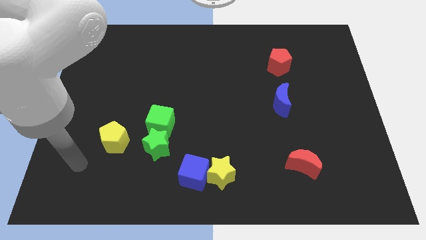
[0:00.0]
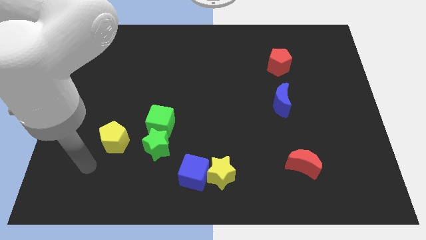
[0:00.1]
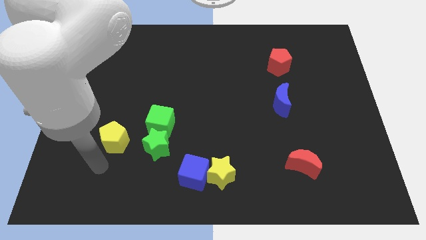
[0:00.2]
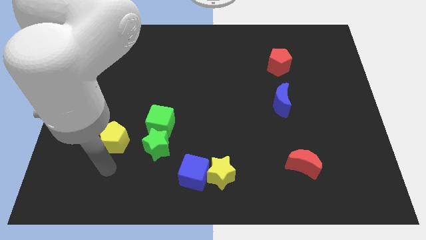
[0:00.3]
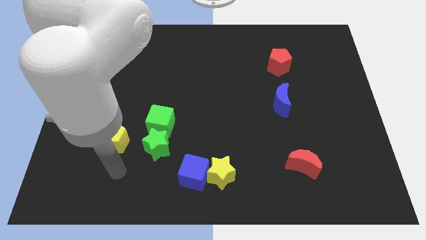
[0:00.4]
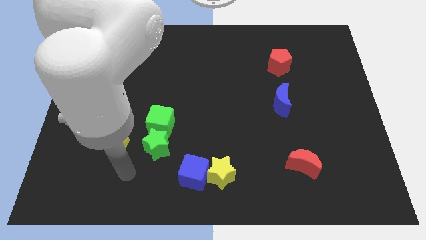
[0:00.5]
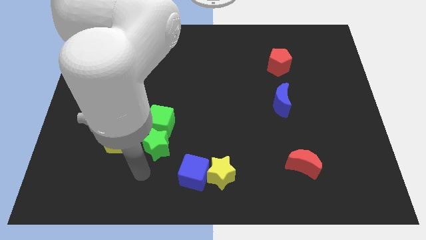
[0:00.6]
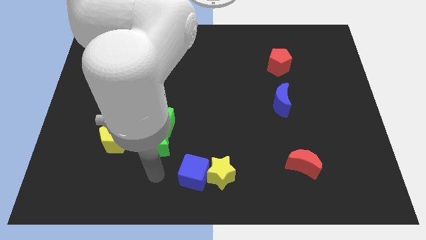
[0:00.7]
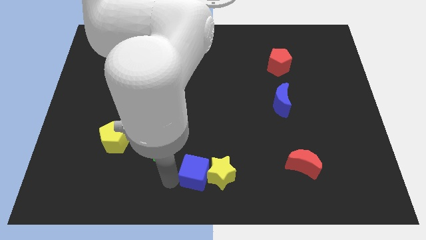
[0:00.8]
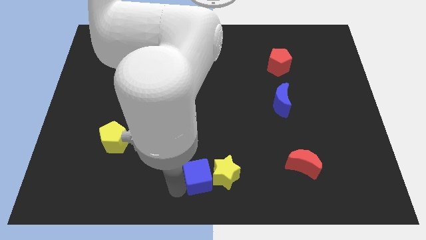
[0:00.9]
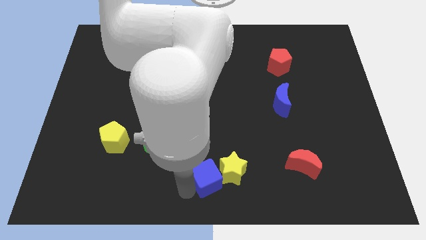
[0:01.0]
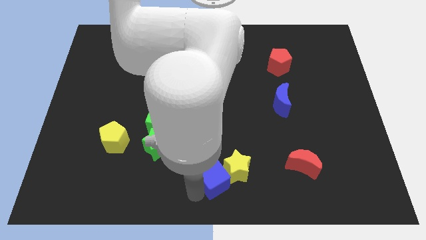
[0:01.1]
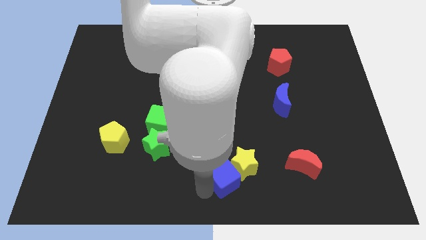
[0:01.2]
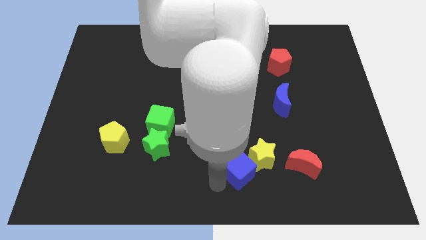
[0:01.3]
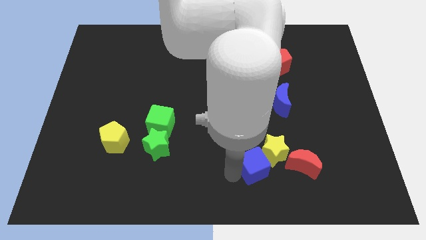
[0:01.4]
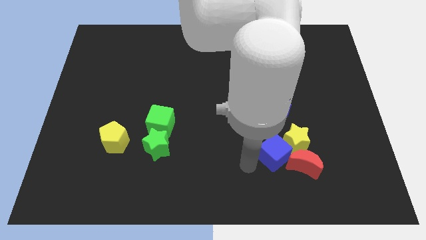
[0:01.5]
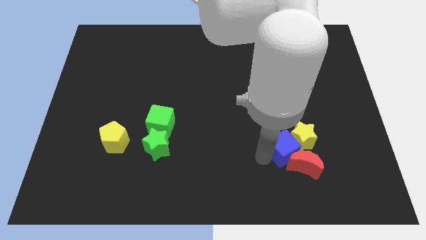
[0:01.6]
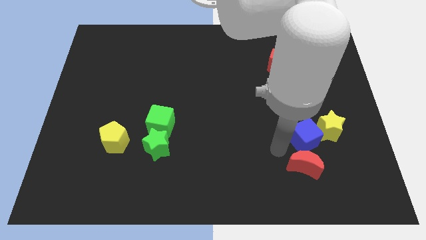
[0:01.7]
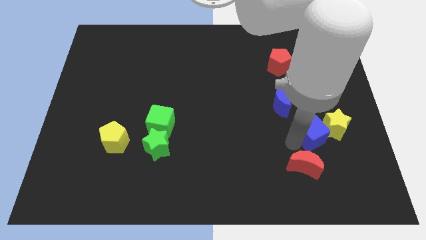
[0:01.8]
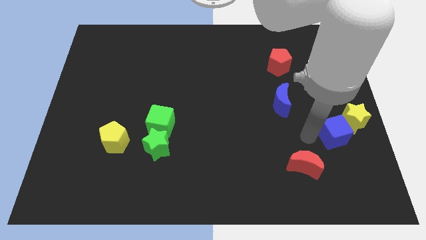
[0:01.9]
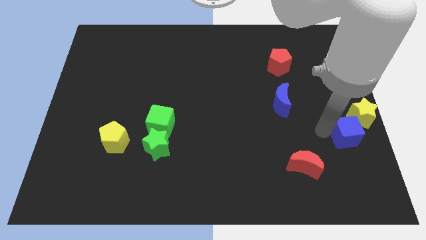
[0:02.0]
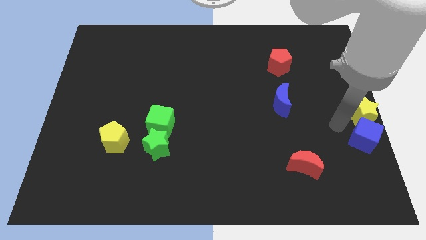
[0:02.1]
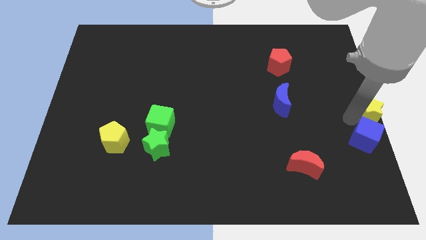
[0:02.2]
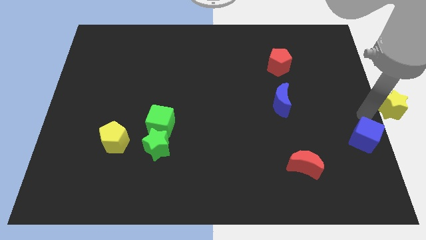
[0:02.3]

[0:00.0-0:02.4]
pull the blue cube apart from the yellow star

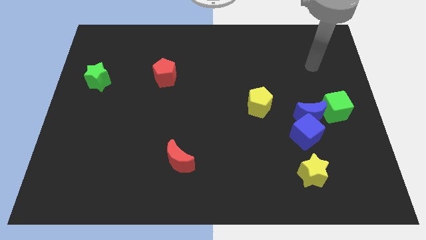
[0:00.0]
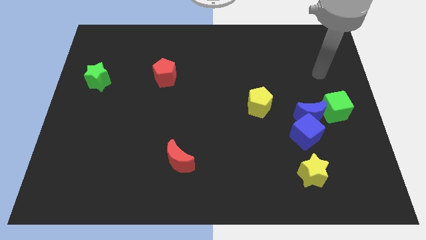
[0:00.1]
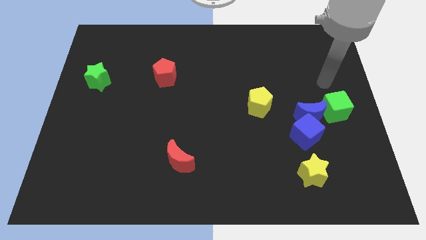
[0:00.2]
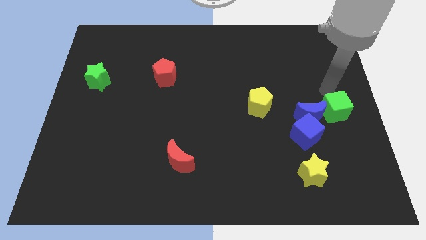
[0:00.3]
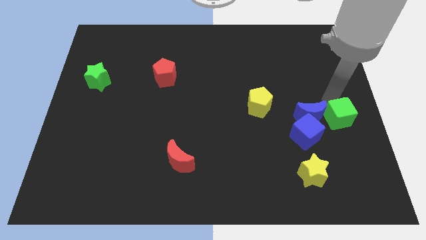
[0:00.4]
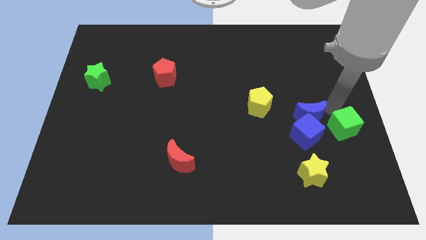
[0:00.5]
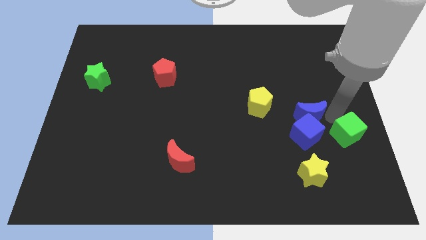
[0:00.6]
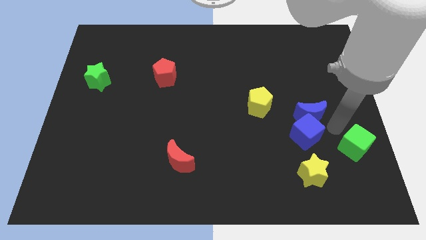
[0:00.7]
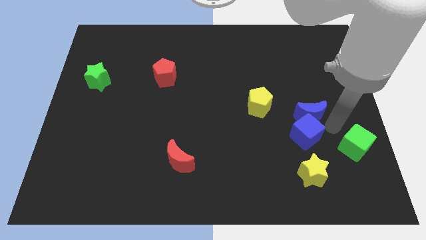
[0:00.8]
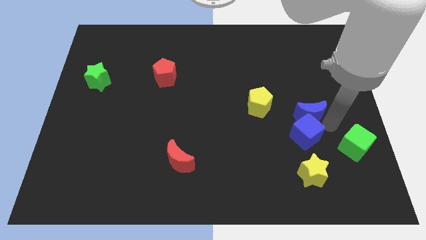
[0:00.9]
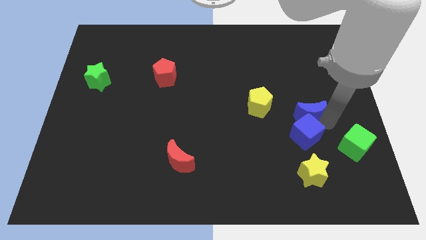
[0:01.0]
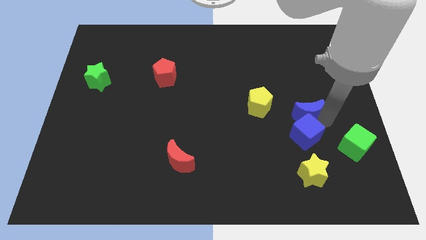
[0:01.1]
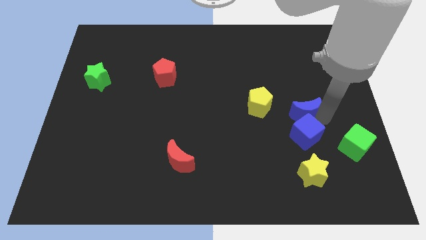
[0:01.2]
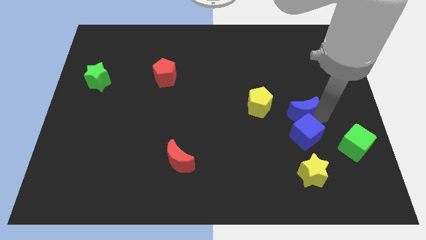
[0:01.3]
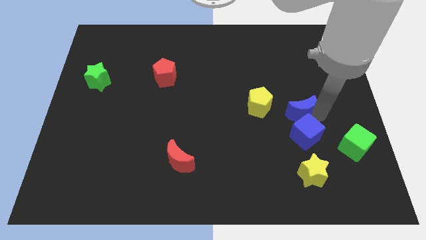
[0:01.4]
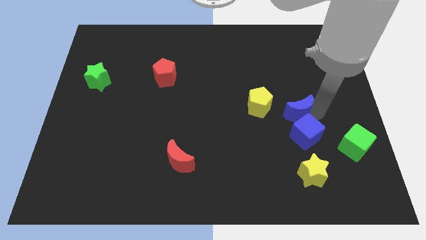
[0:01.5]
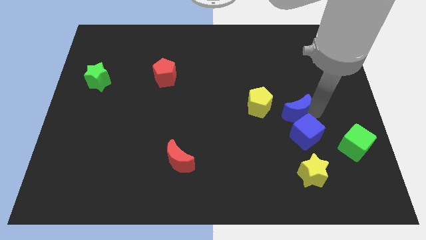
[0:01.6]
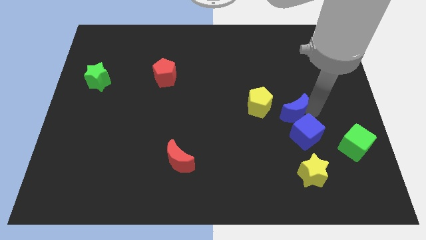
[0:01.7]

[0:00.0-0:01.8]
pull the blue moon apart from the blue cube and green cube

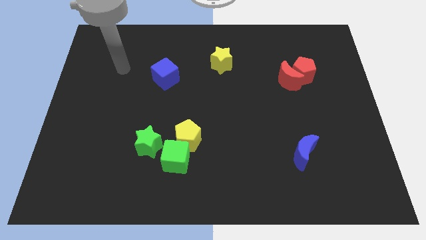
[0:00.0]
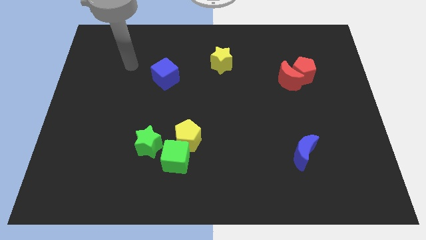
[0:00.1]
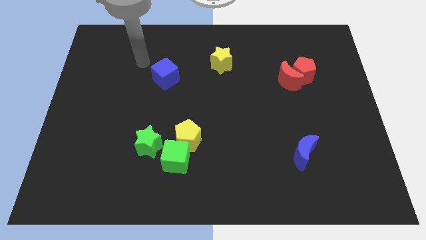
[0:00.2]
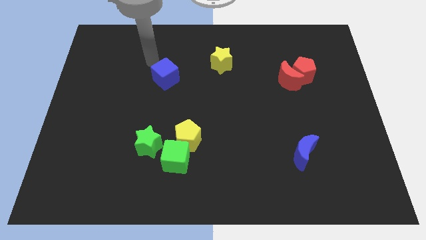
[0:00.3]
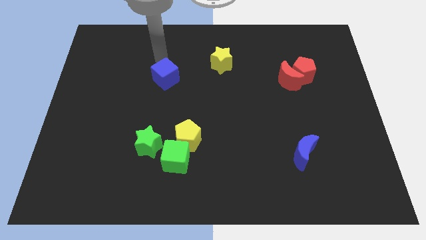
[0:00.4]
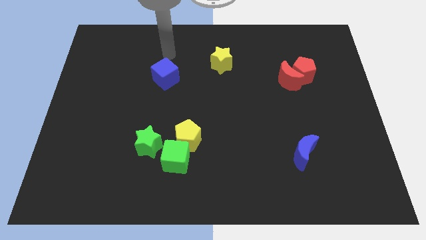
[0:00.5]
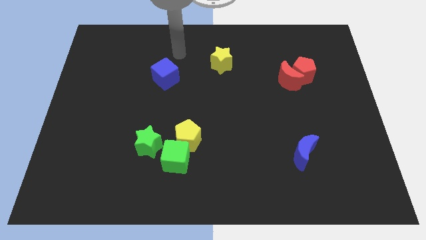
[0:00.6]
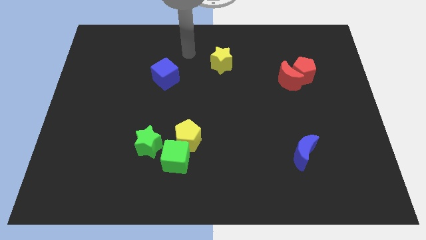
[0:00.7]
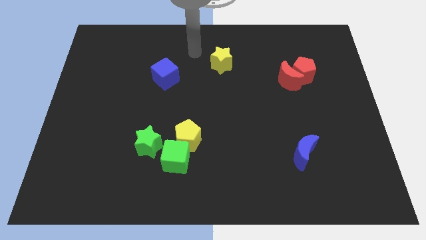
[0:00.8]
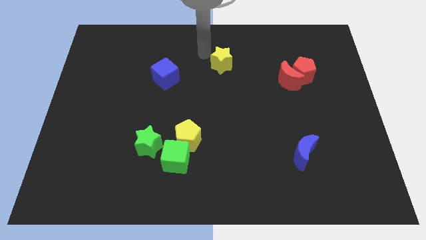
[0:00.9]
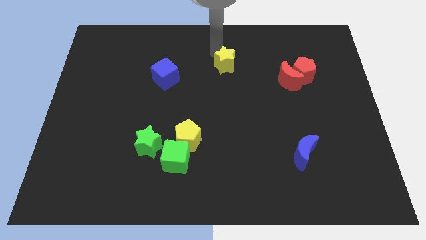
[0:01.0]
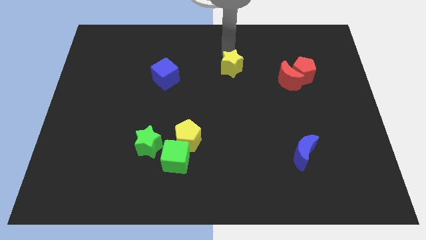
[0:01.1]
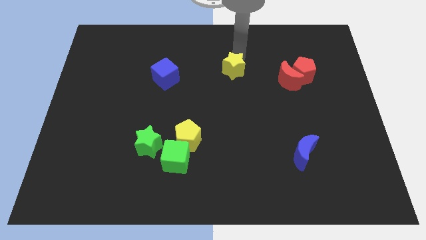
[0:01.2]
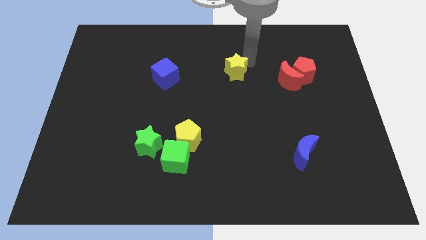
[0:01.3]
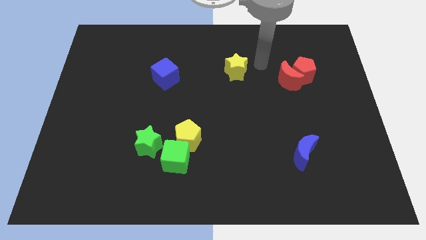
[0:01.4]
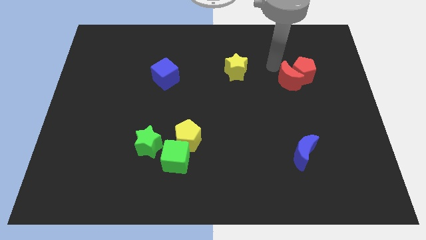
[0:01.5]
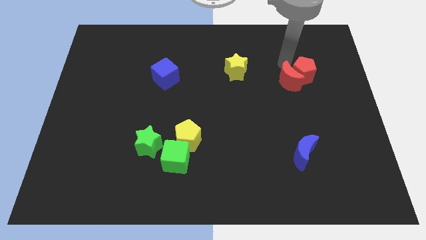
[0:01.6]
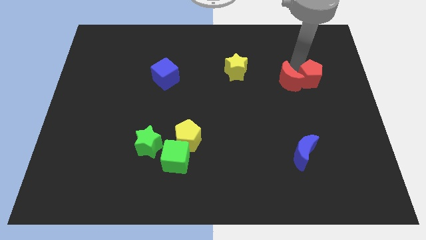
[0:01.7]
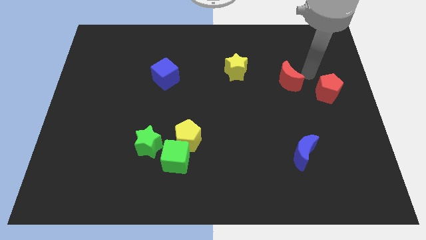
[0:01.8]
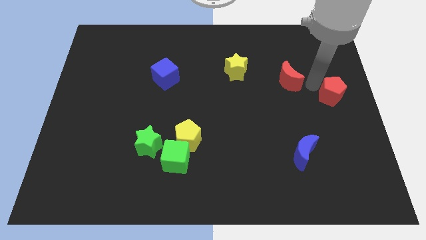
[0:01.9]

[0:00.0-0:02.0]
separate the red moon from the red pentagon

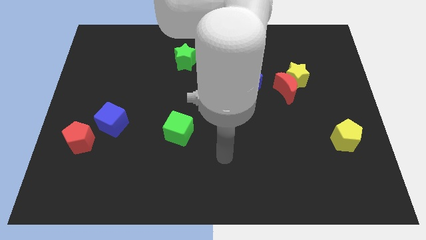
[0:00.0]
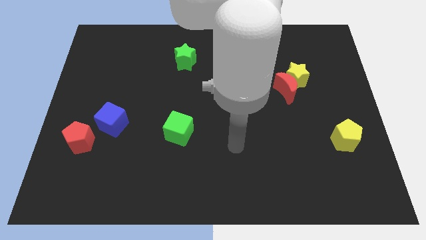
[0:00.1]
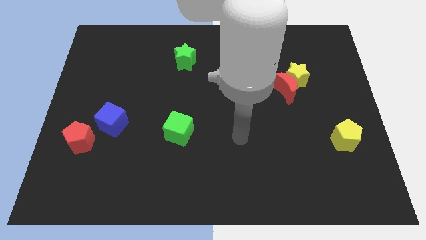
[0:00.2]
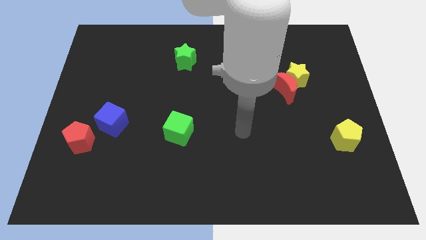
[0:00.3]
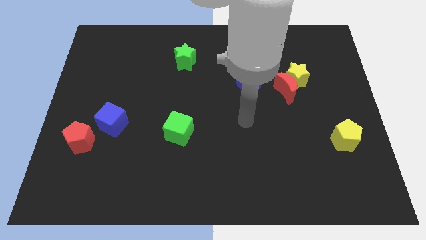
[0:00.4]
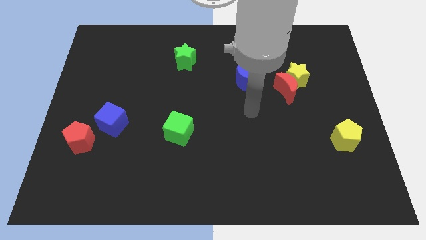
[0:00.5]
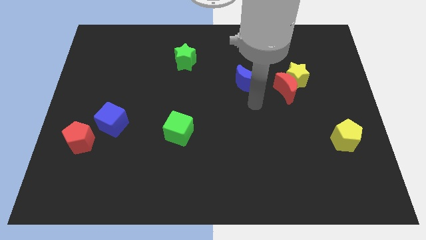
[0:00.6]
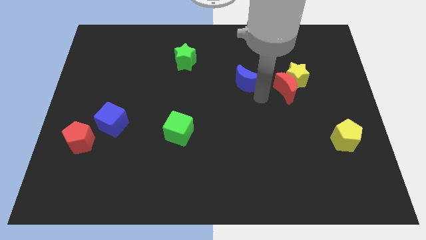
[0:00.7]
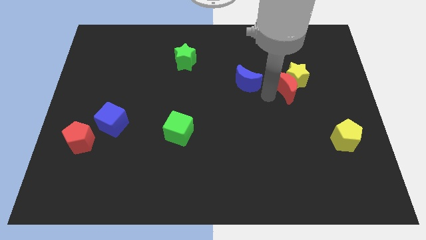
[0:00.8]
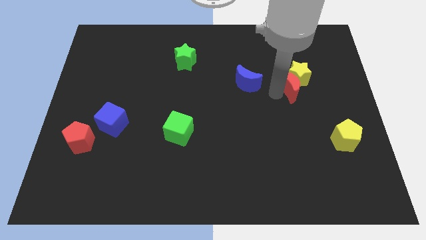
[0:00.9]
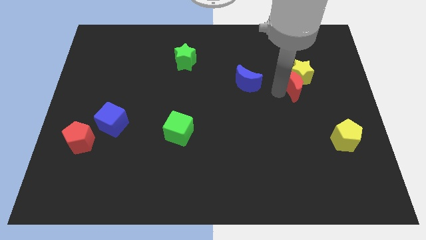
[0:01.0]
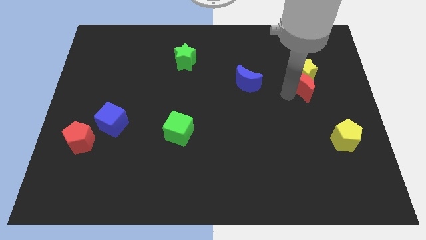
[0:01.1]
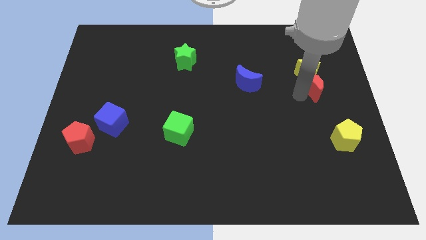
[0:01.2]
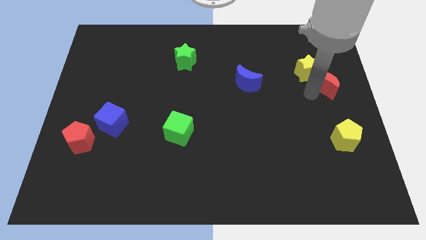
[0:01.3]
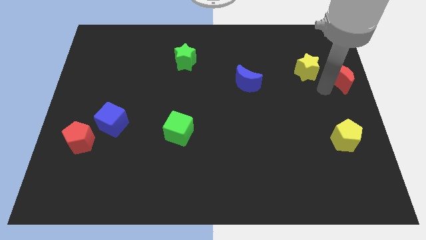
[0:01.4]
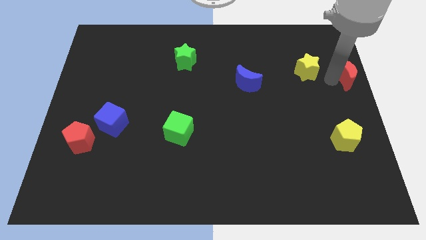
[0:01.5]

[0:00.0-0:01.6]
separate the yellow star from the red moon

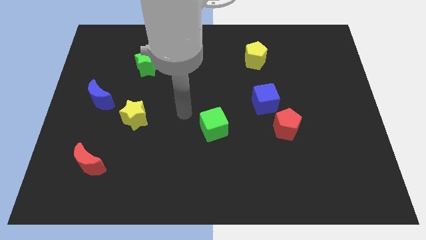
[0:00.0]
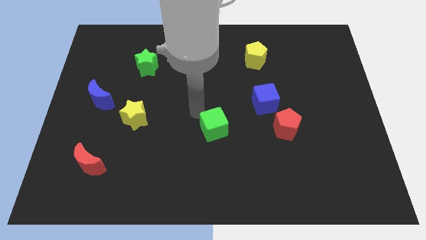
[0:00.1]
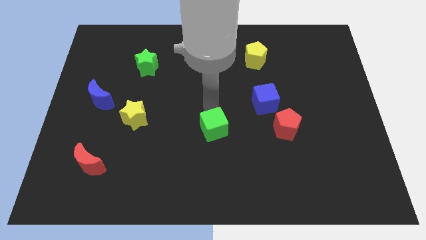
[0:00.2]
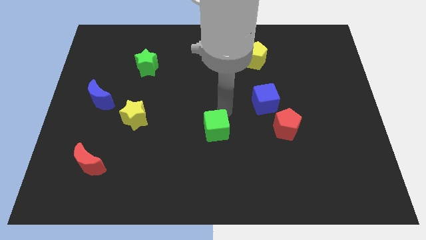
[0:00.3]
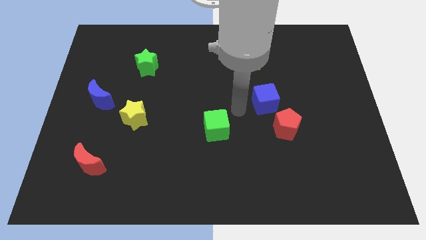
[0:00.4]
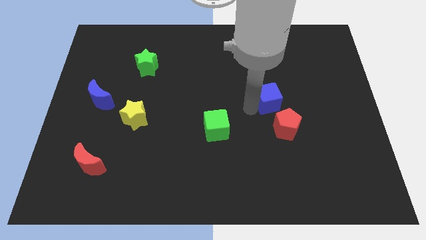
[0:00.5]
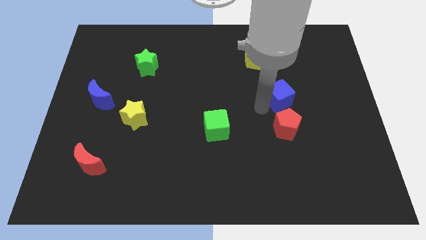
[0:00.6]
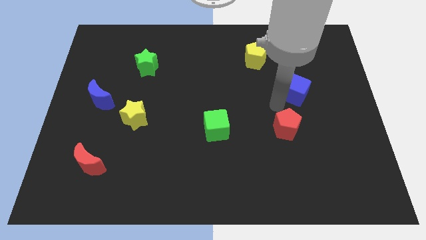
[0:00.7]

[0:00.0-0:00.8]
pull the red pentagon apart from the blue cube

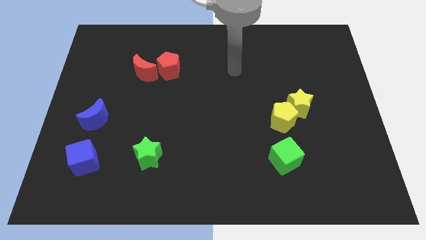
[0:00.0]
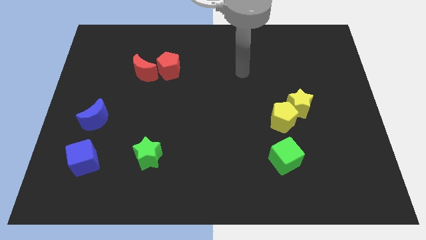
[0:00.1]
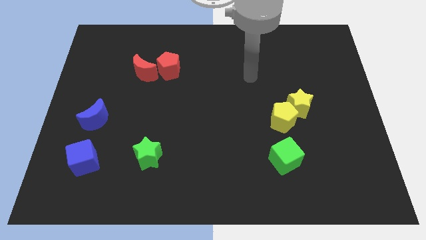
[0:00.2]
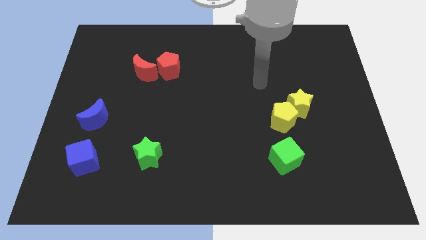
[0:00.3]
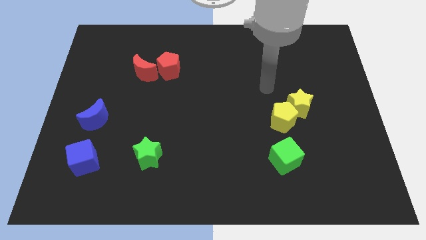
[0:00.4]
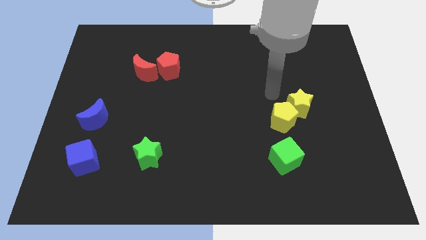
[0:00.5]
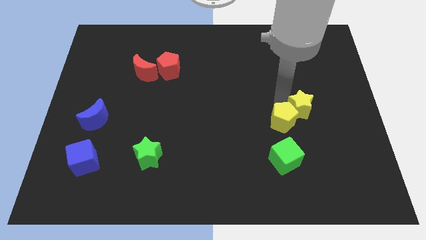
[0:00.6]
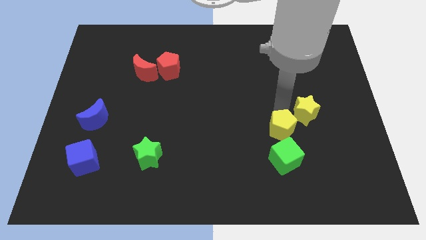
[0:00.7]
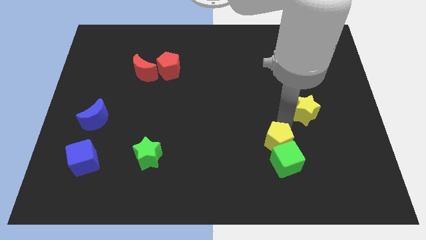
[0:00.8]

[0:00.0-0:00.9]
separate the yellow star from the yellow pentagon
